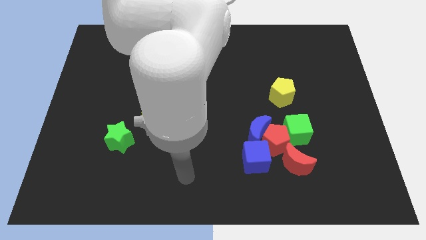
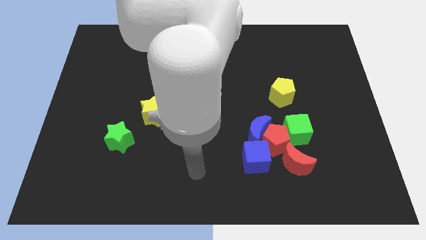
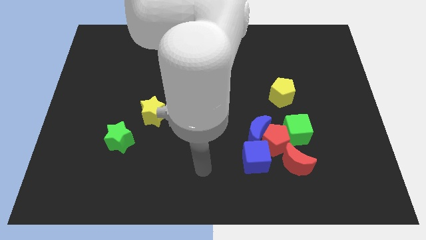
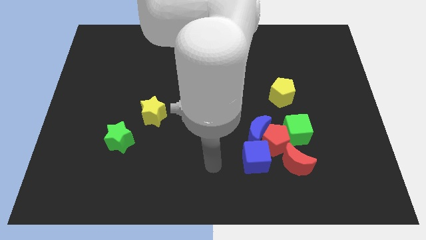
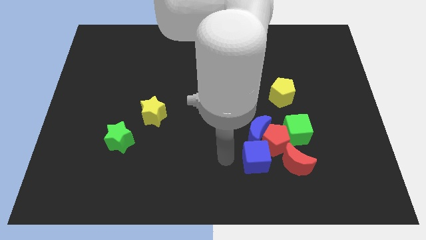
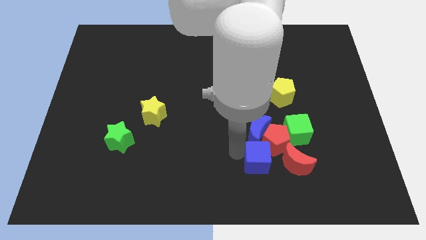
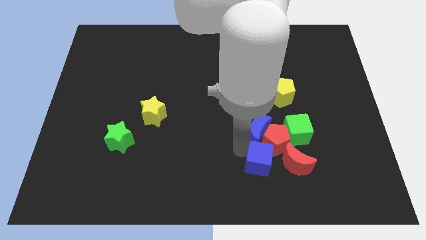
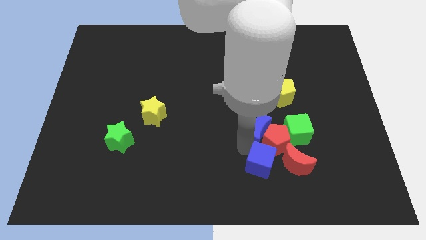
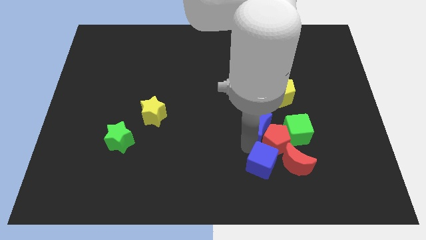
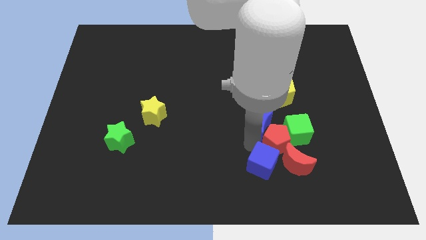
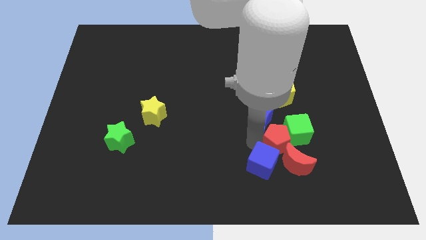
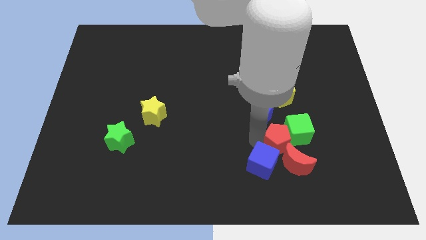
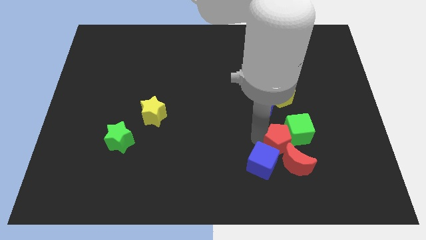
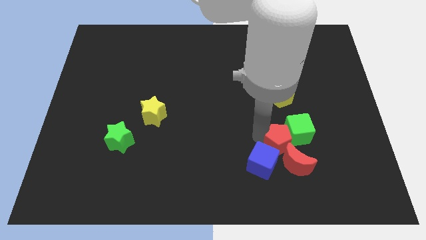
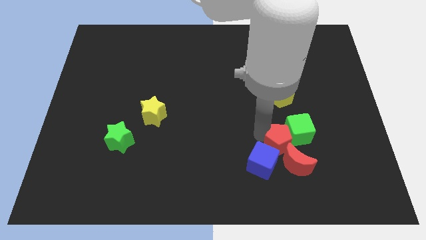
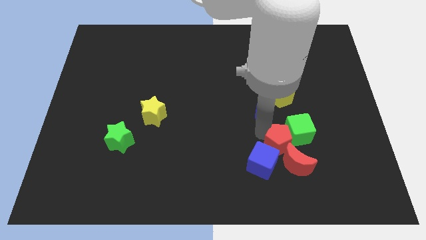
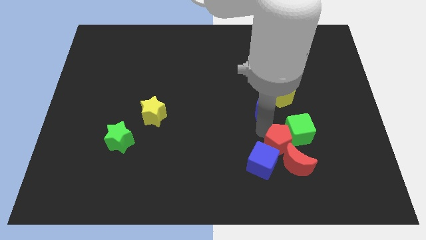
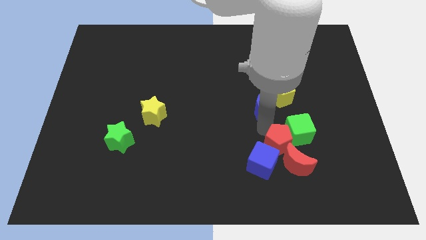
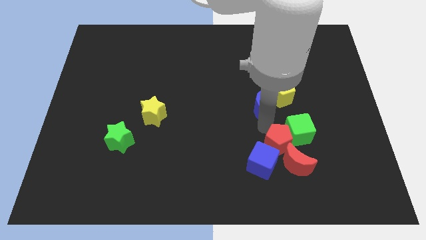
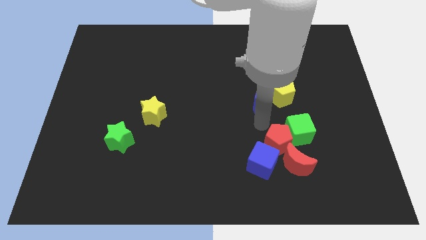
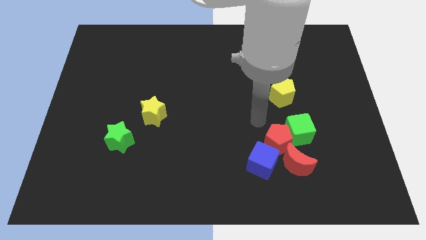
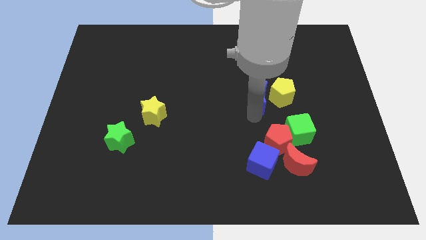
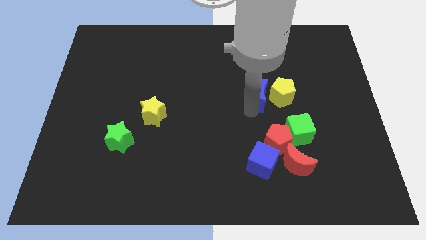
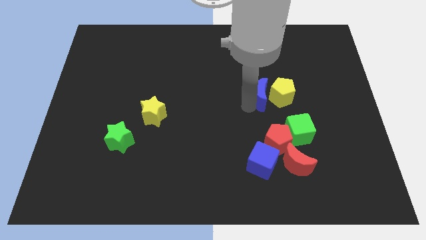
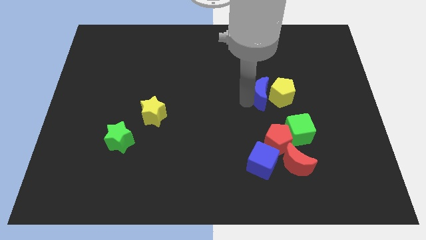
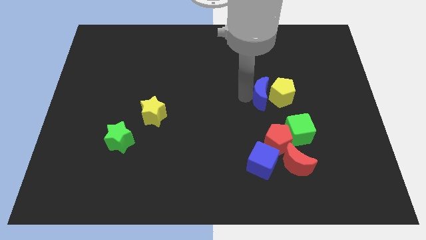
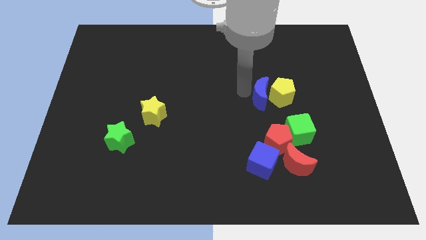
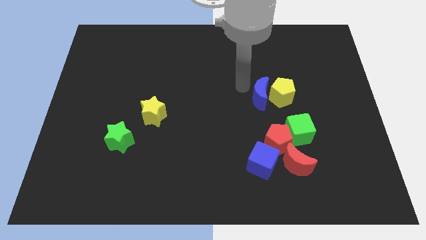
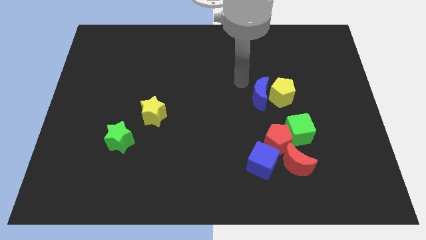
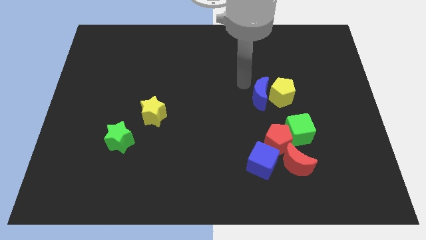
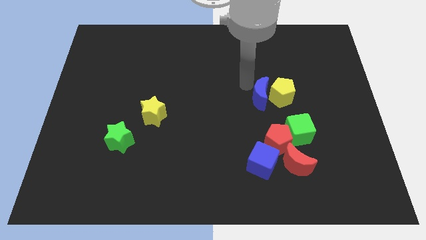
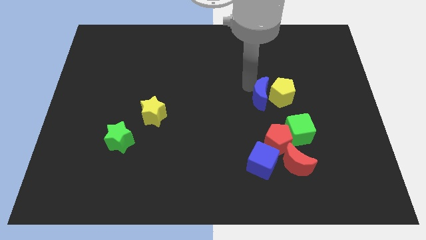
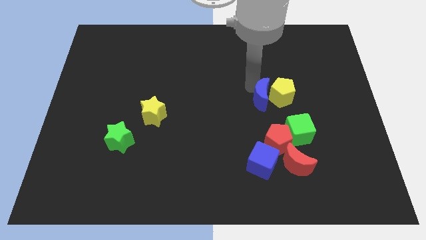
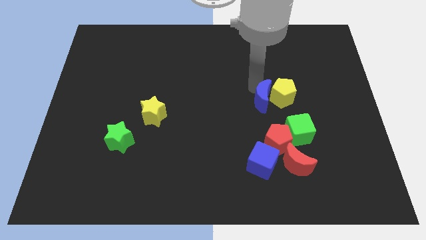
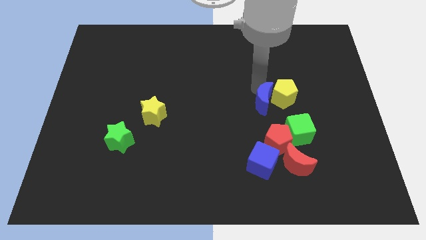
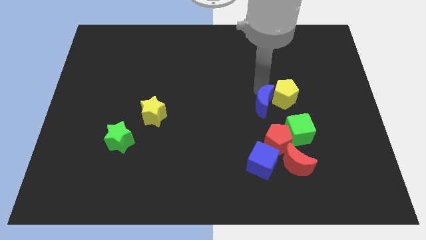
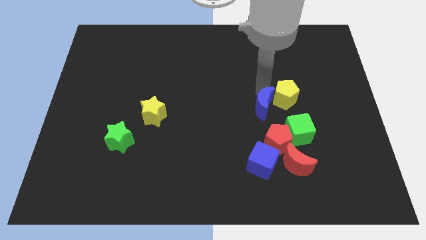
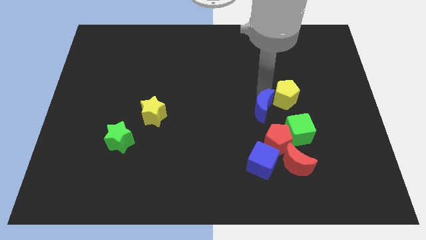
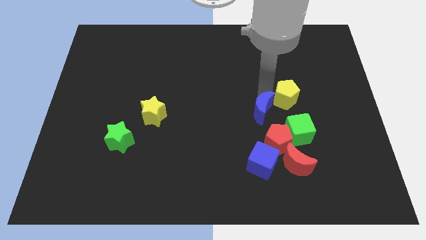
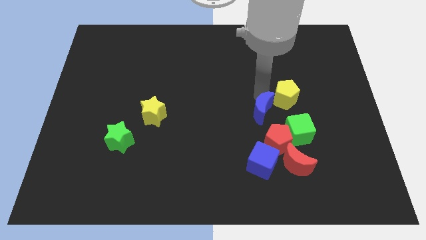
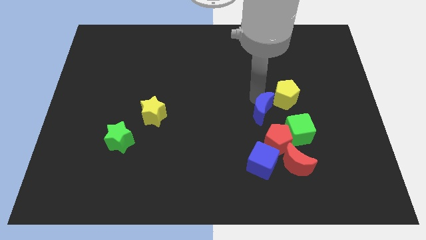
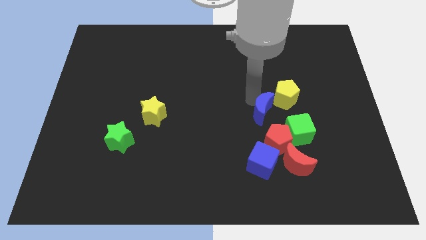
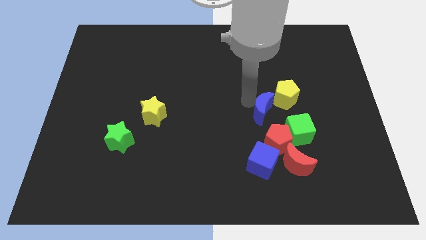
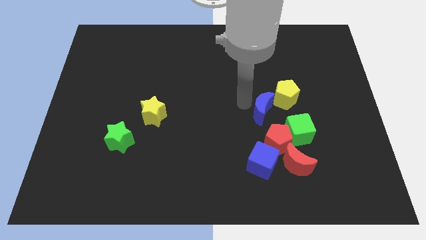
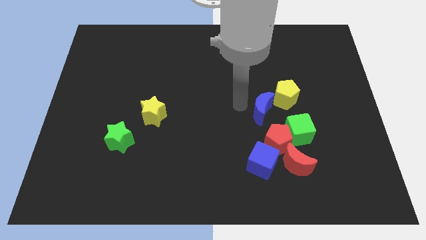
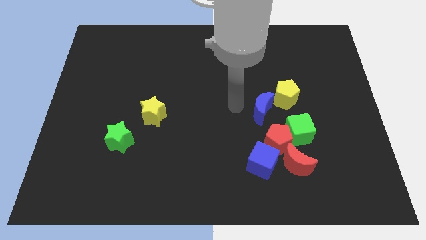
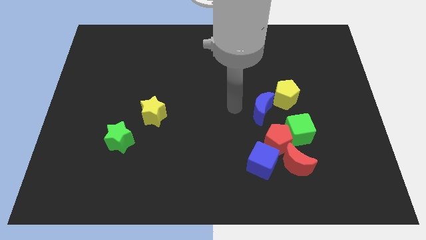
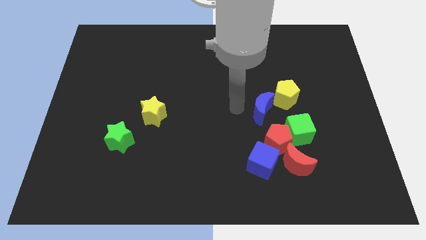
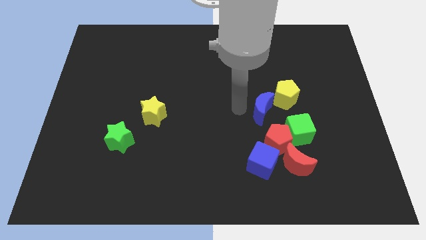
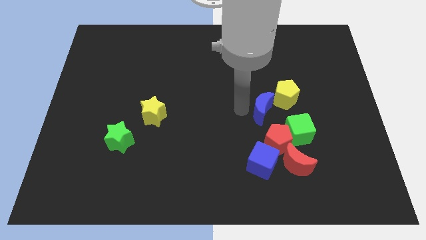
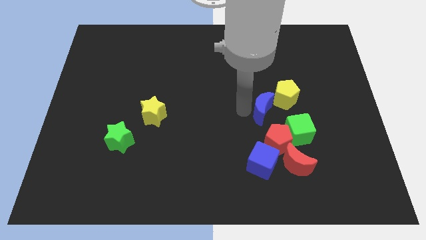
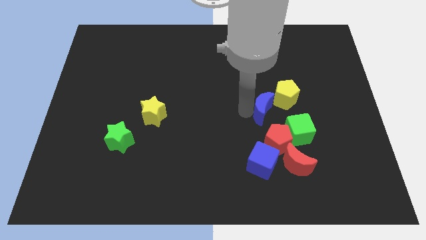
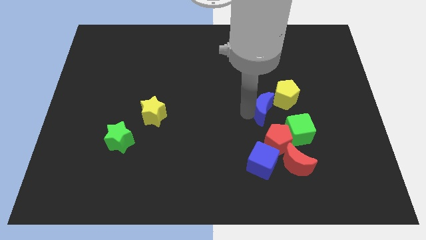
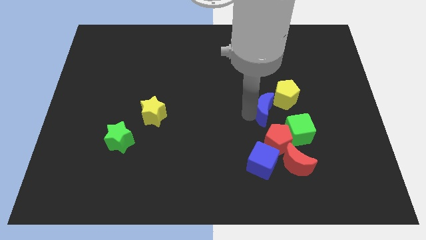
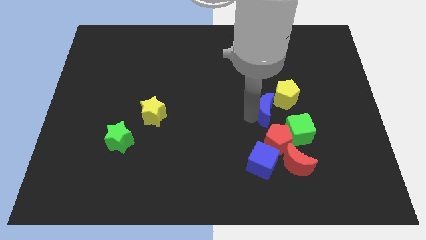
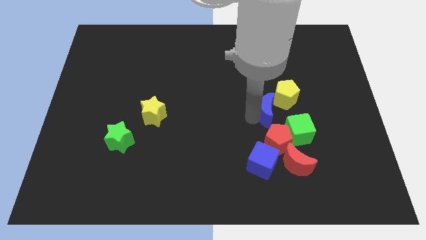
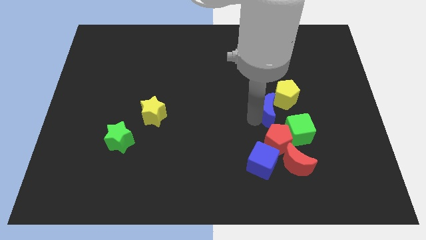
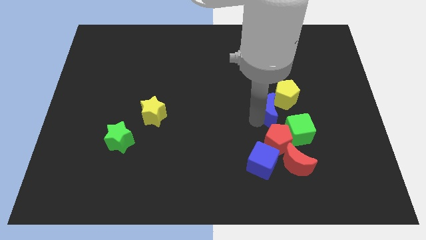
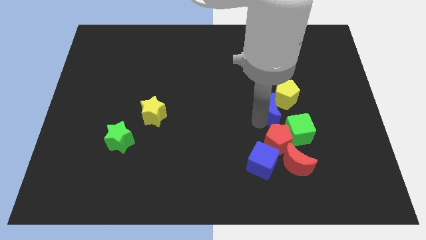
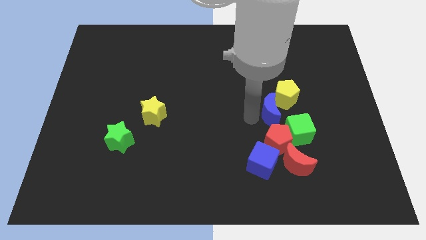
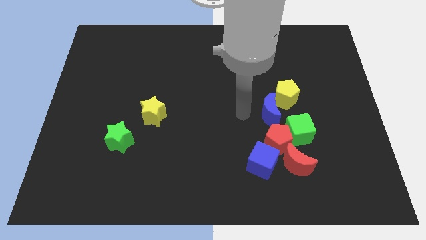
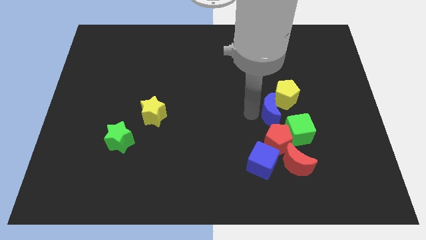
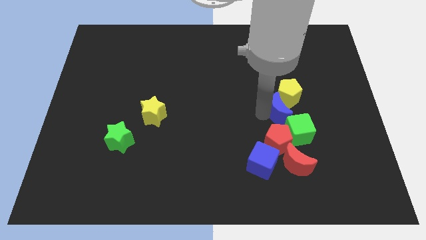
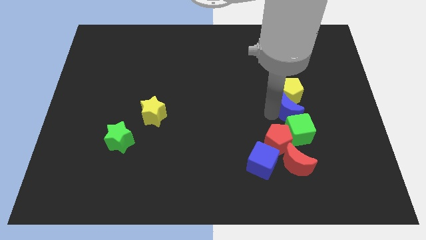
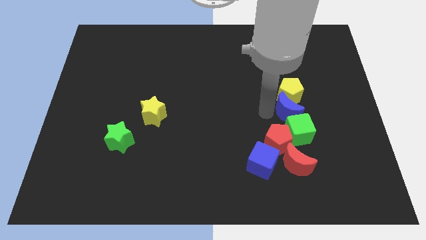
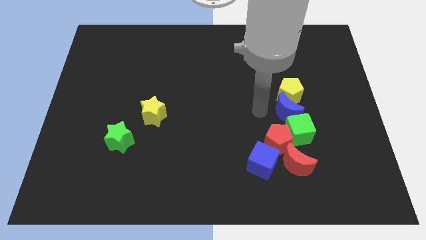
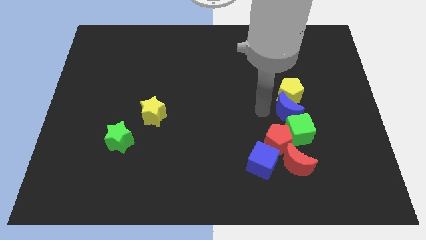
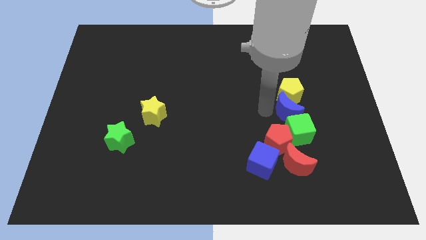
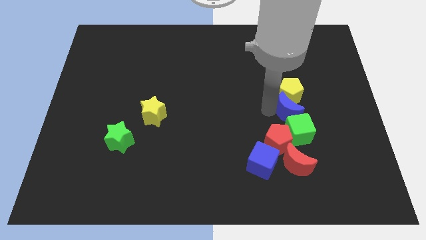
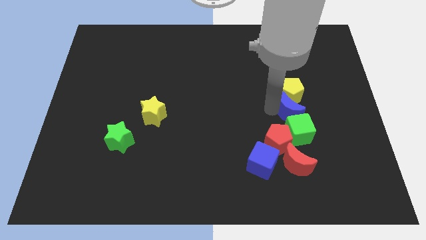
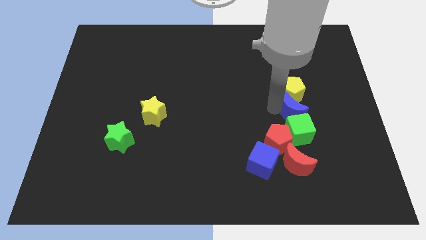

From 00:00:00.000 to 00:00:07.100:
put the blue moon to the top right side of the green cube
